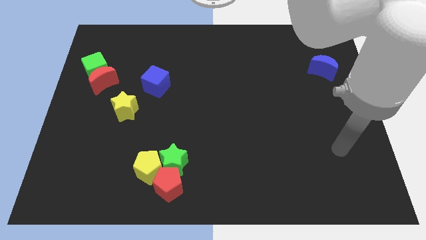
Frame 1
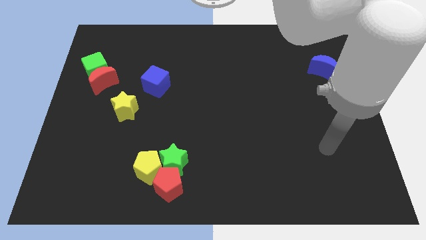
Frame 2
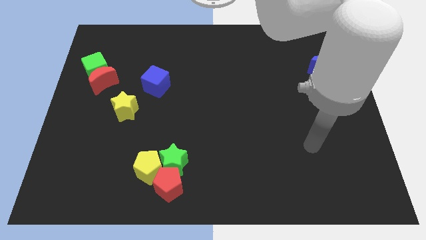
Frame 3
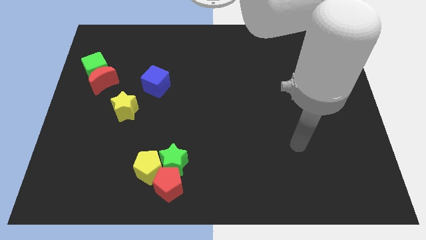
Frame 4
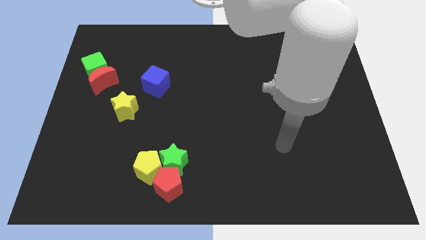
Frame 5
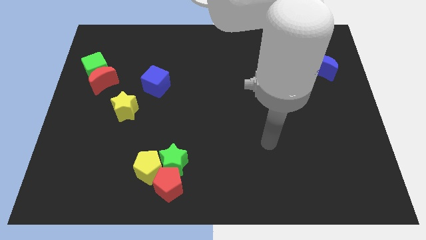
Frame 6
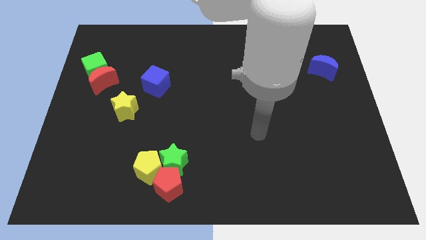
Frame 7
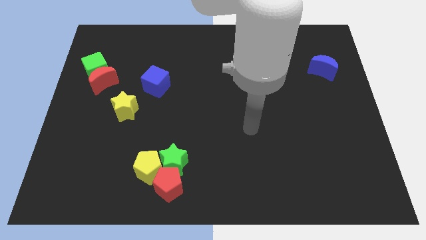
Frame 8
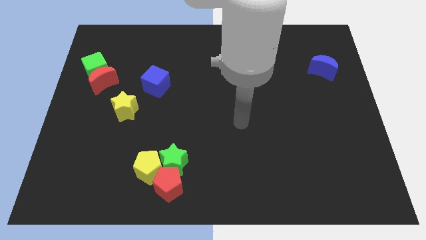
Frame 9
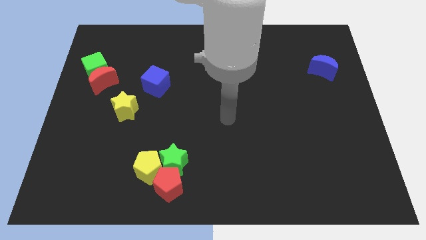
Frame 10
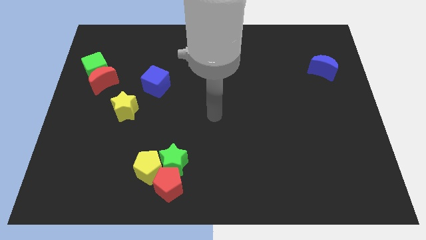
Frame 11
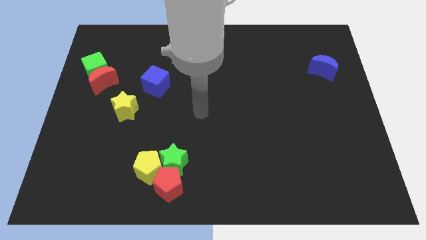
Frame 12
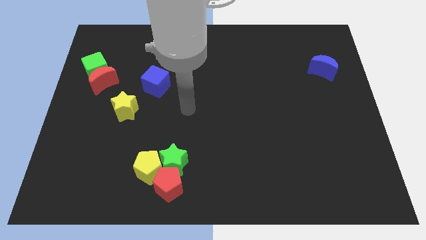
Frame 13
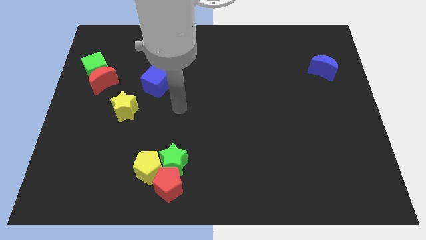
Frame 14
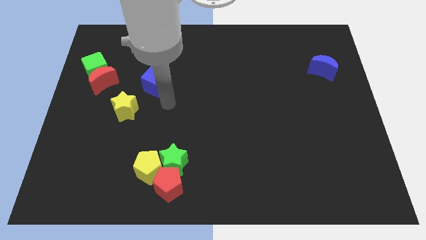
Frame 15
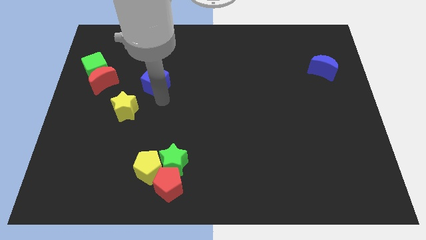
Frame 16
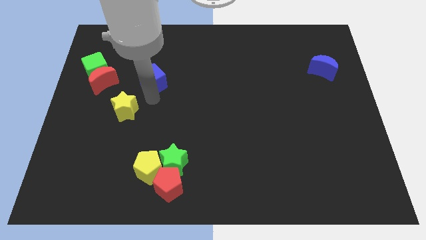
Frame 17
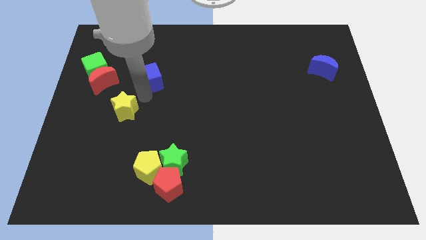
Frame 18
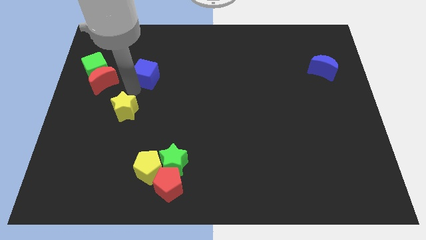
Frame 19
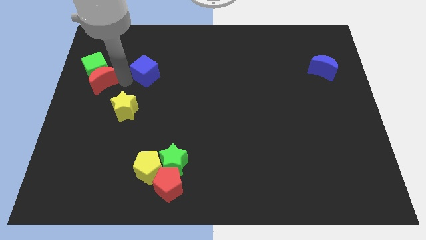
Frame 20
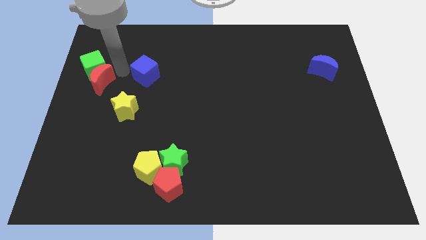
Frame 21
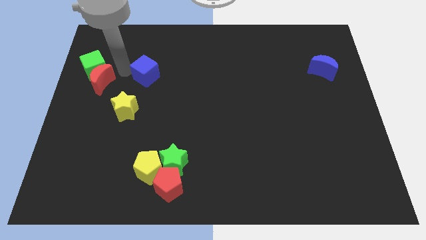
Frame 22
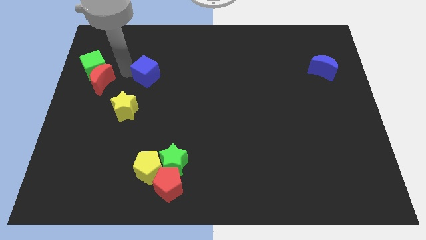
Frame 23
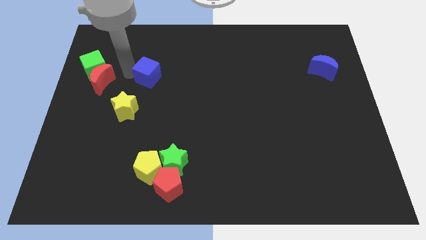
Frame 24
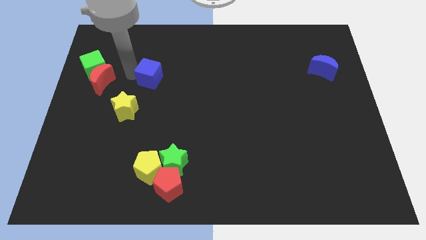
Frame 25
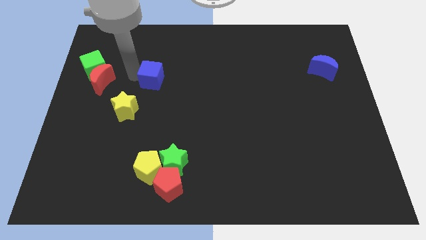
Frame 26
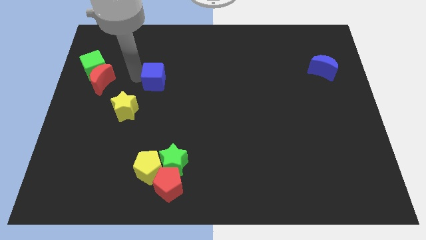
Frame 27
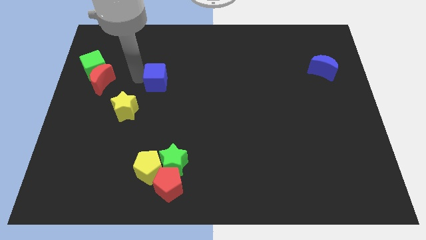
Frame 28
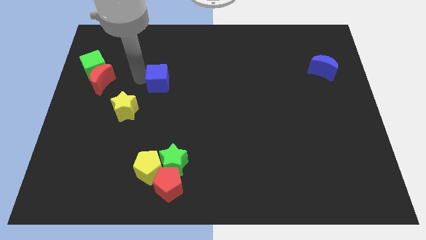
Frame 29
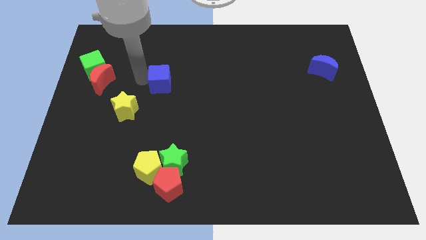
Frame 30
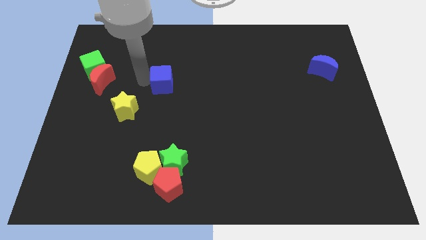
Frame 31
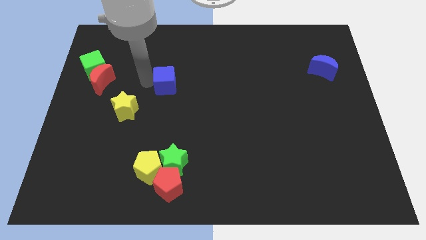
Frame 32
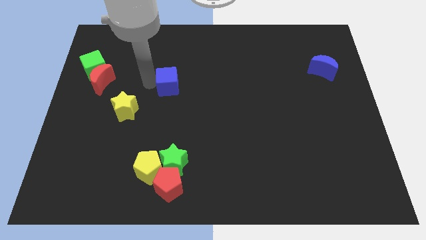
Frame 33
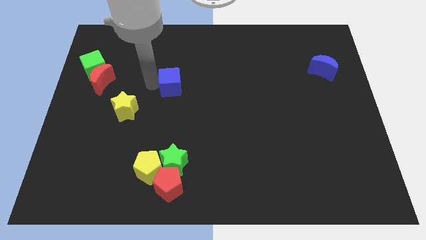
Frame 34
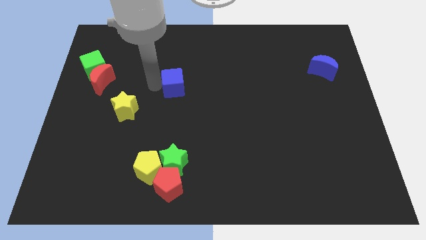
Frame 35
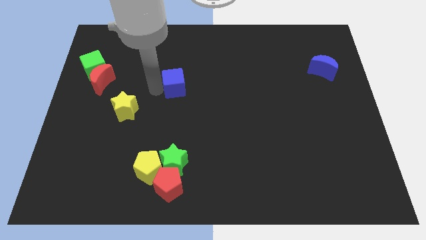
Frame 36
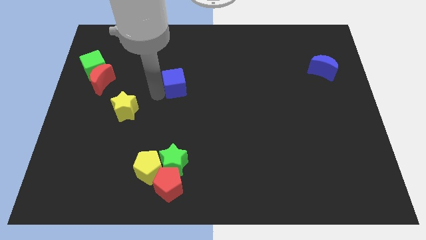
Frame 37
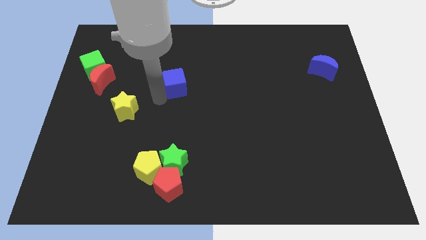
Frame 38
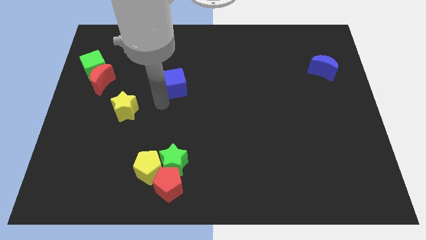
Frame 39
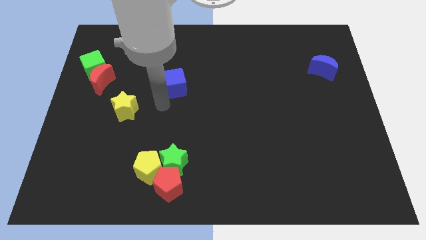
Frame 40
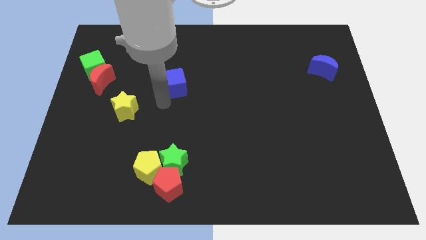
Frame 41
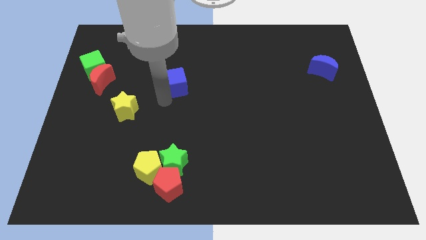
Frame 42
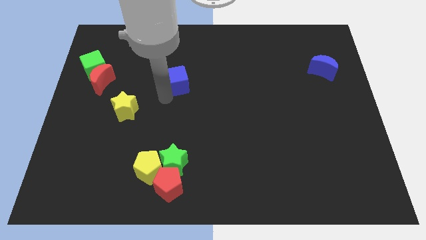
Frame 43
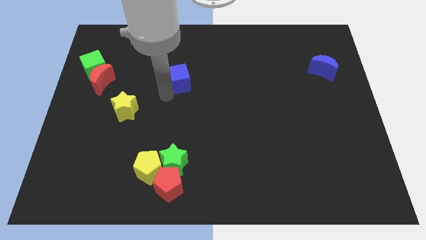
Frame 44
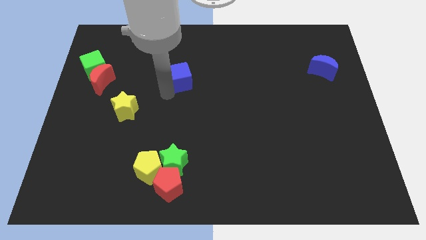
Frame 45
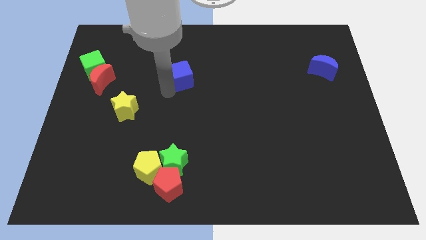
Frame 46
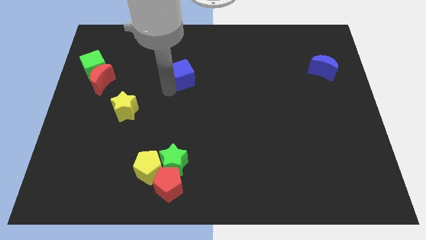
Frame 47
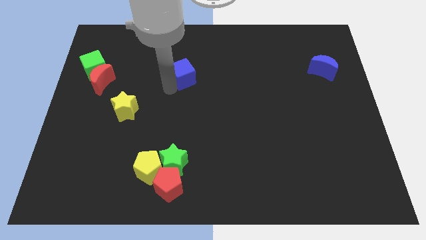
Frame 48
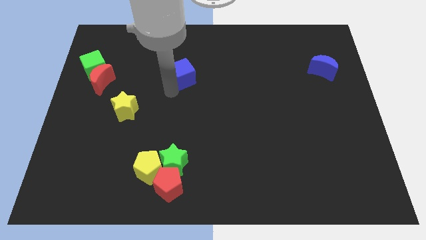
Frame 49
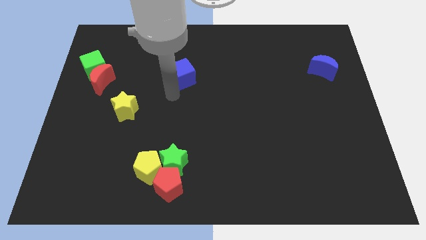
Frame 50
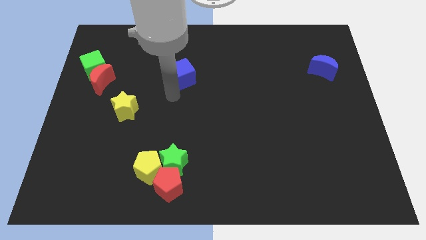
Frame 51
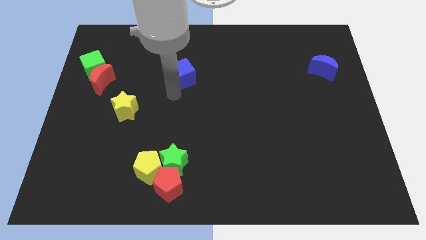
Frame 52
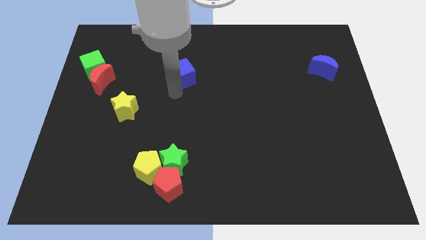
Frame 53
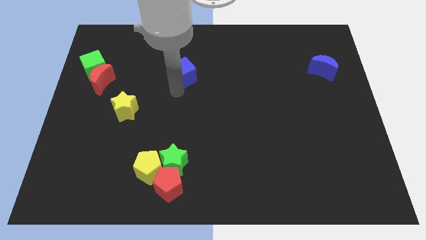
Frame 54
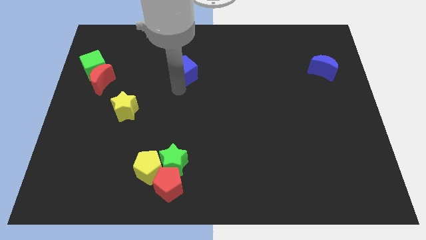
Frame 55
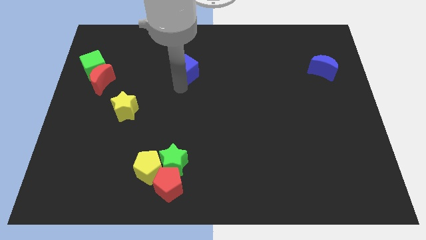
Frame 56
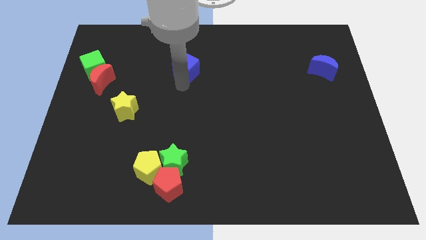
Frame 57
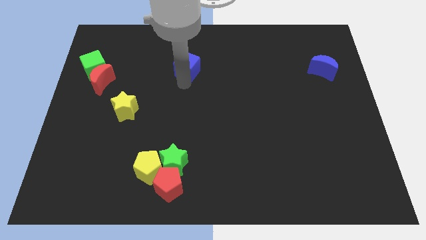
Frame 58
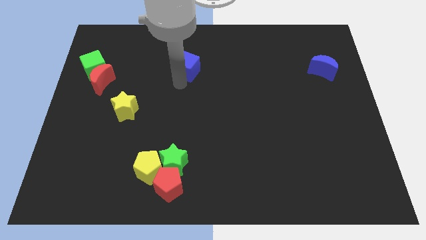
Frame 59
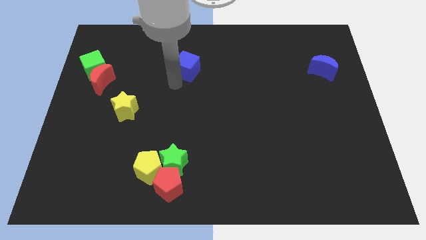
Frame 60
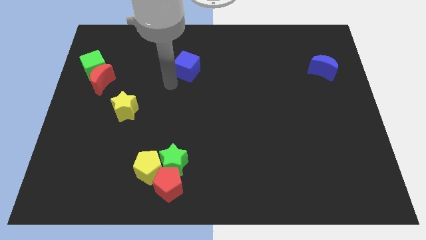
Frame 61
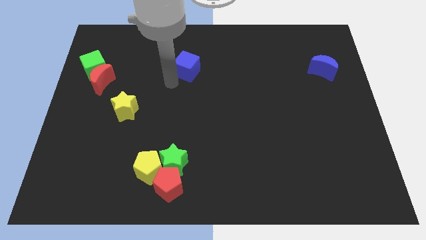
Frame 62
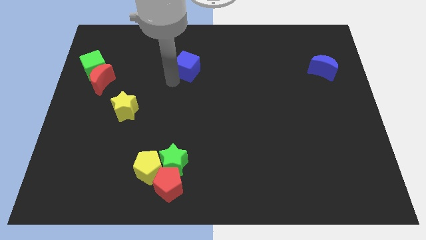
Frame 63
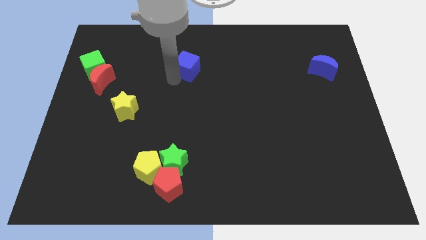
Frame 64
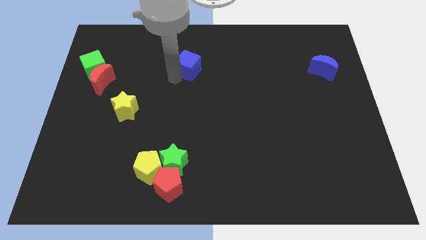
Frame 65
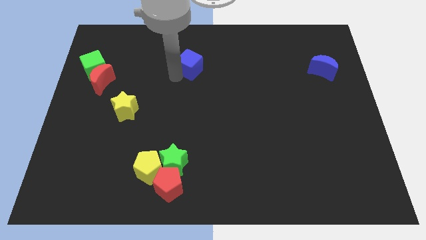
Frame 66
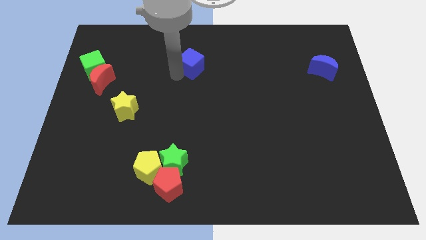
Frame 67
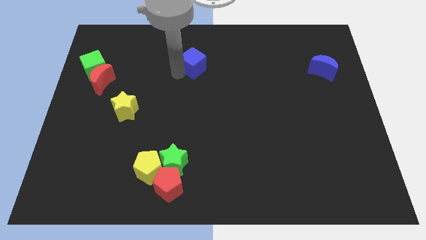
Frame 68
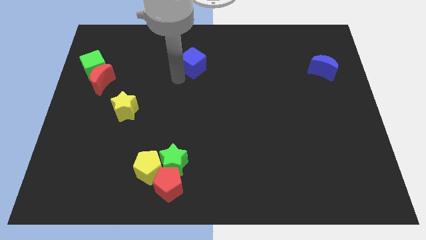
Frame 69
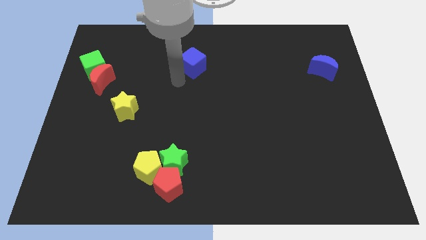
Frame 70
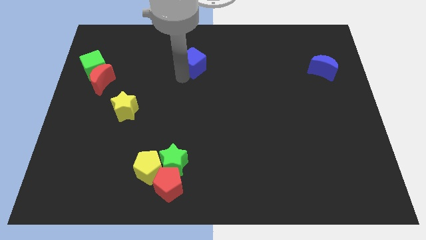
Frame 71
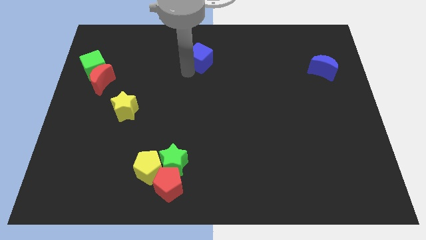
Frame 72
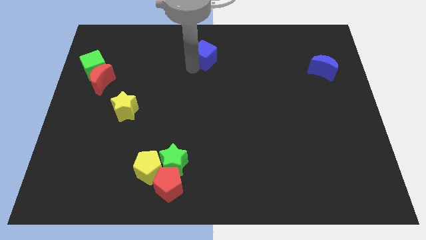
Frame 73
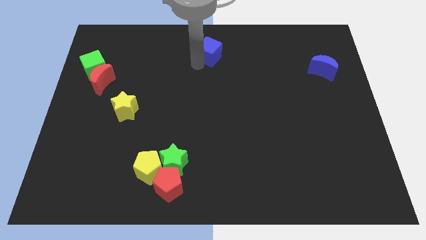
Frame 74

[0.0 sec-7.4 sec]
push the blue cube to the top side
